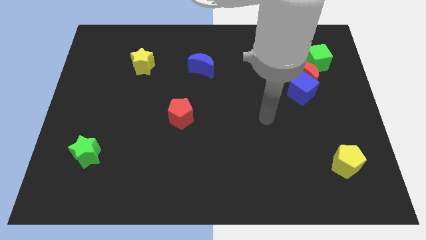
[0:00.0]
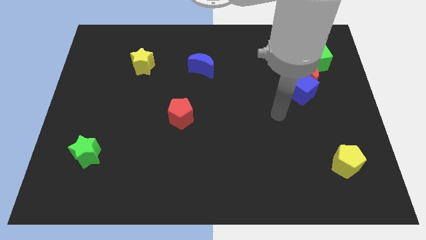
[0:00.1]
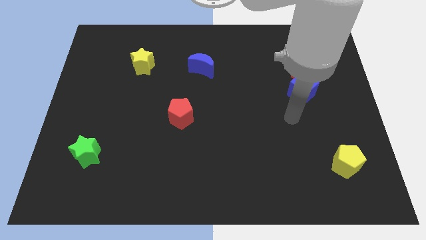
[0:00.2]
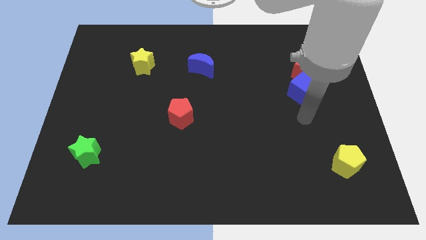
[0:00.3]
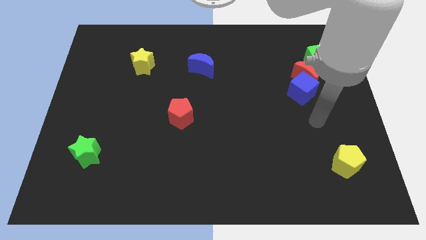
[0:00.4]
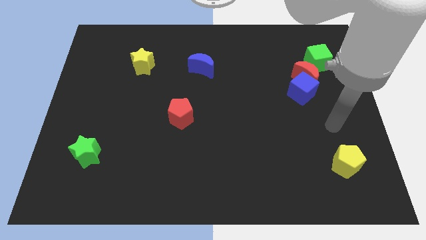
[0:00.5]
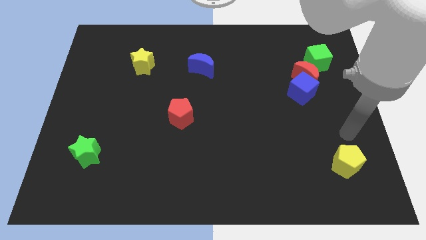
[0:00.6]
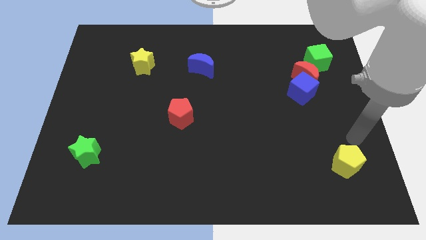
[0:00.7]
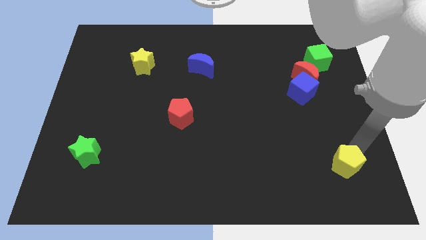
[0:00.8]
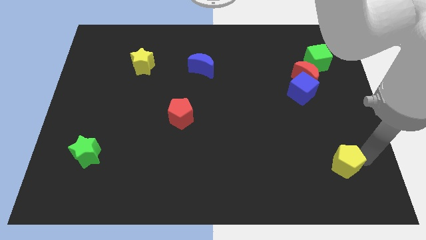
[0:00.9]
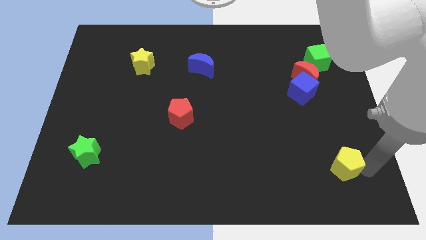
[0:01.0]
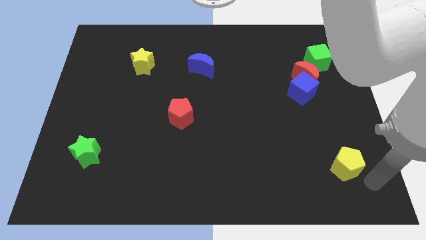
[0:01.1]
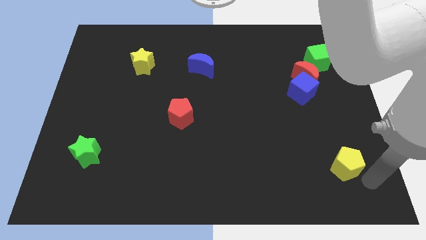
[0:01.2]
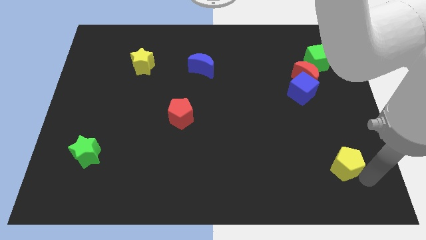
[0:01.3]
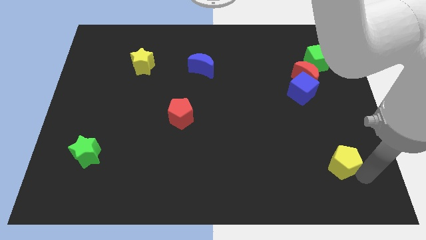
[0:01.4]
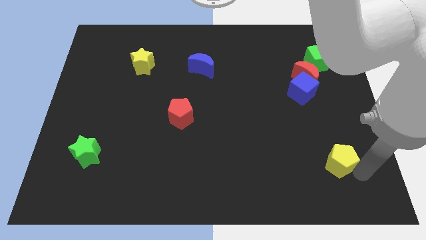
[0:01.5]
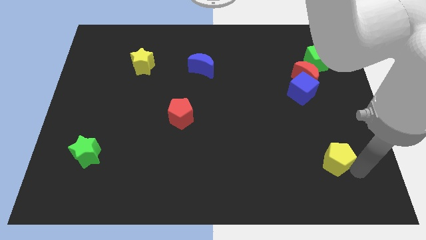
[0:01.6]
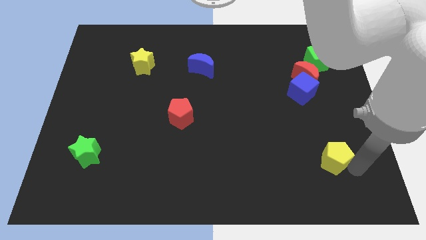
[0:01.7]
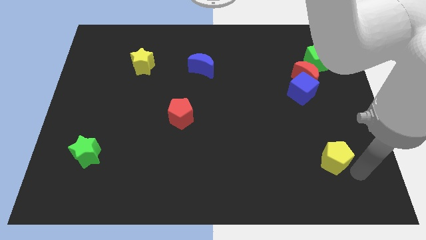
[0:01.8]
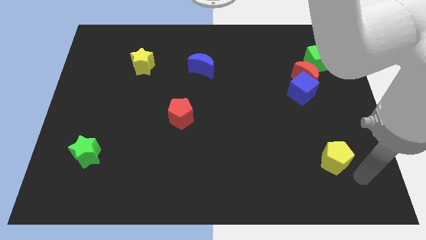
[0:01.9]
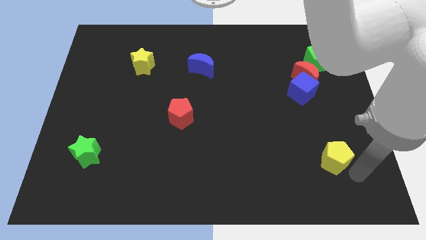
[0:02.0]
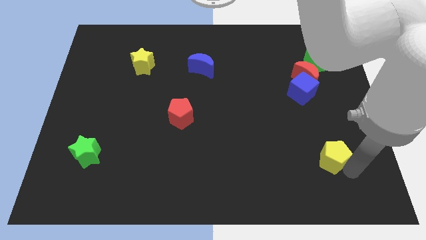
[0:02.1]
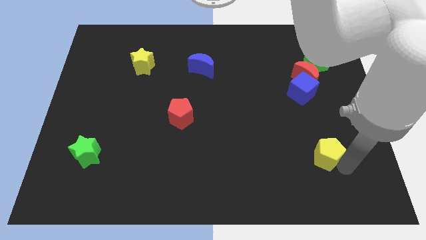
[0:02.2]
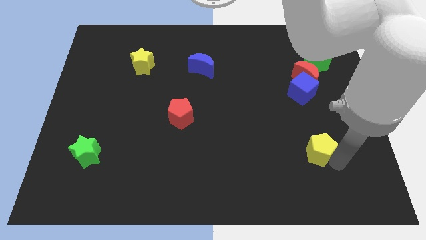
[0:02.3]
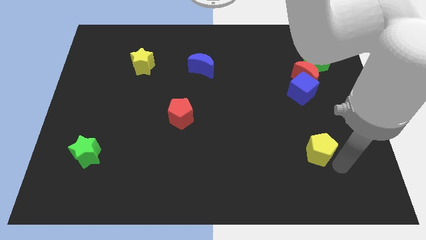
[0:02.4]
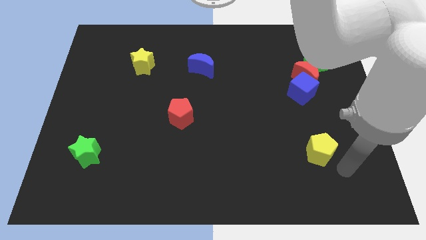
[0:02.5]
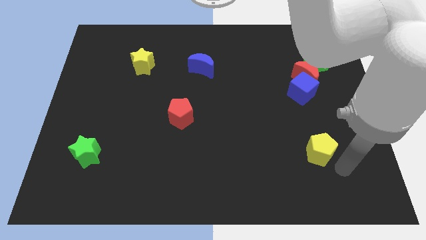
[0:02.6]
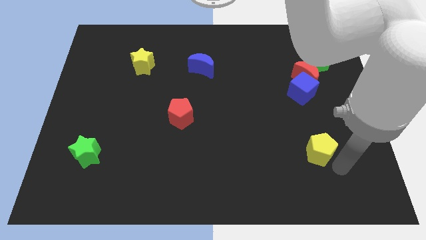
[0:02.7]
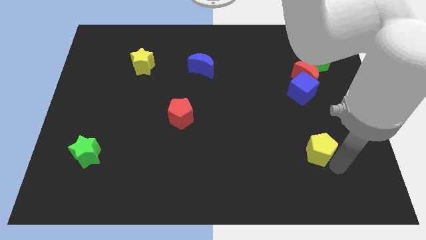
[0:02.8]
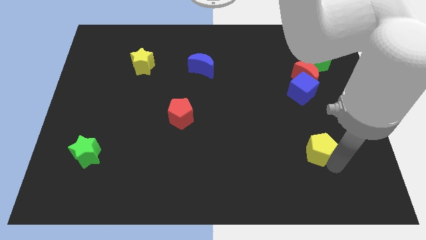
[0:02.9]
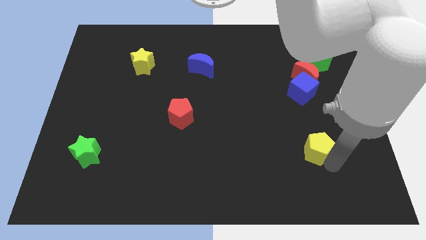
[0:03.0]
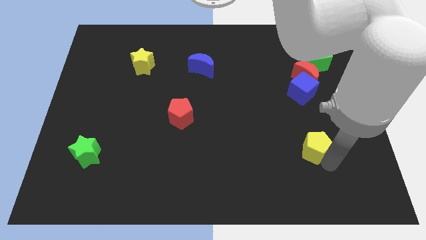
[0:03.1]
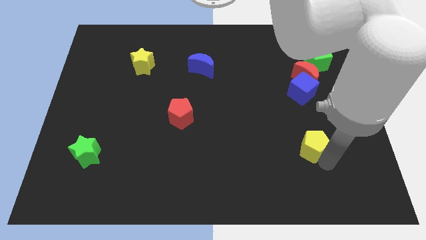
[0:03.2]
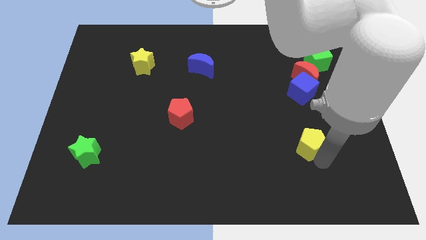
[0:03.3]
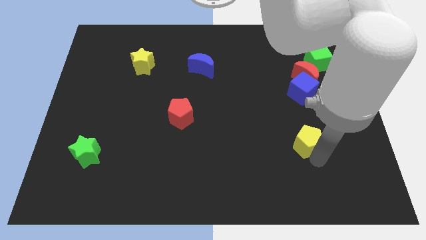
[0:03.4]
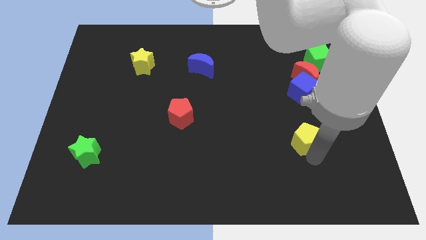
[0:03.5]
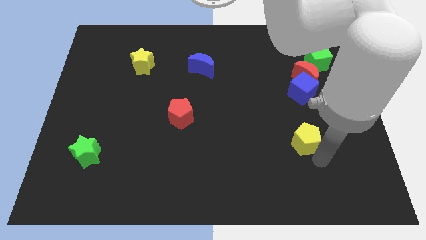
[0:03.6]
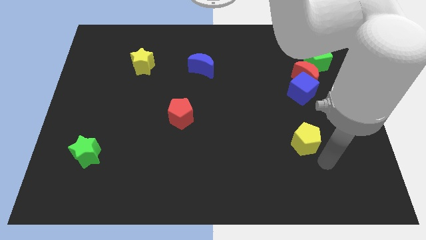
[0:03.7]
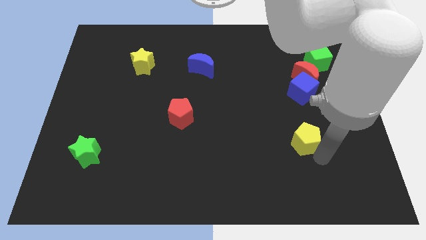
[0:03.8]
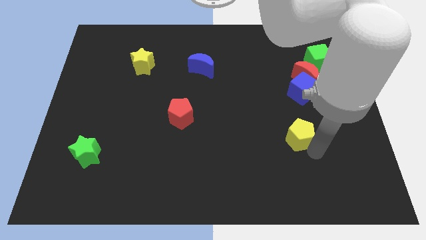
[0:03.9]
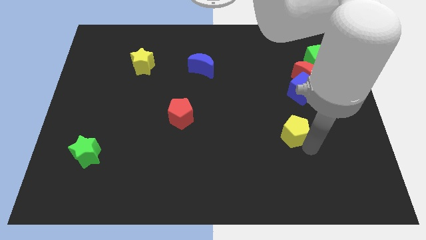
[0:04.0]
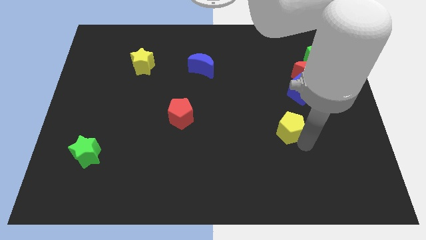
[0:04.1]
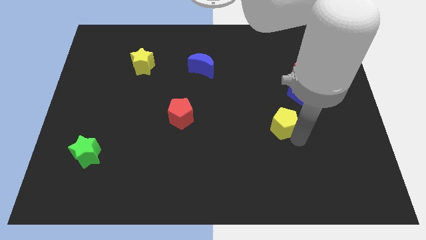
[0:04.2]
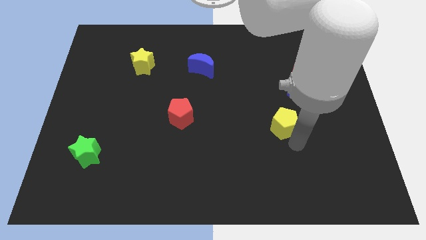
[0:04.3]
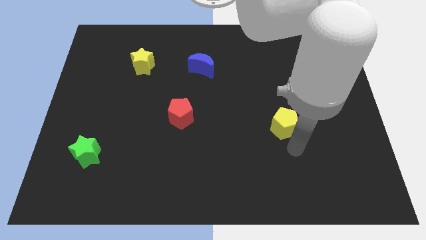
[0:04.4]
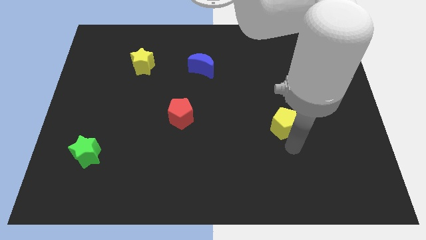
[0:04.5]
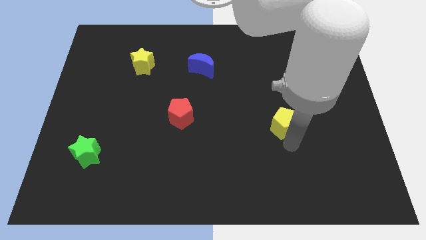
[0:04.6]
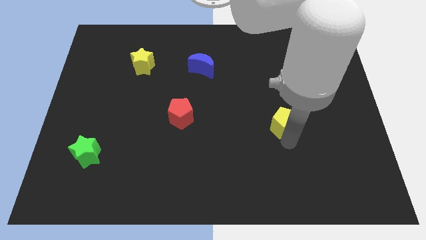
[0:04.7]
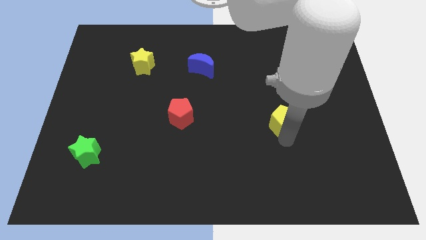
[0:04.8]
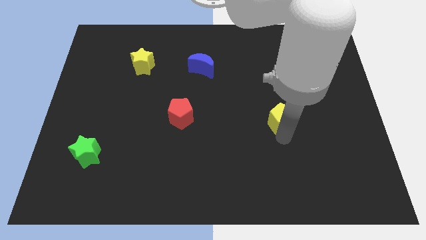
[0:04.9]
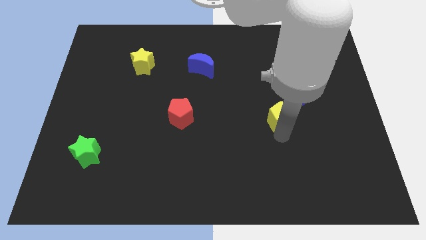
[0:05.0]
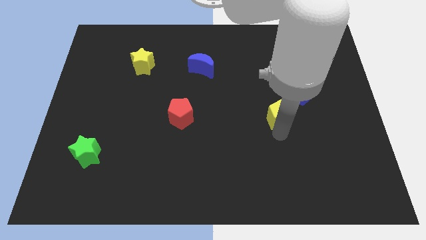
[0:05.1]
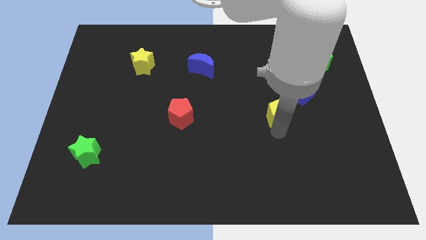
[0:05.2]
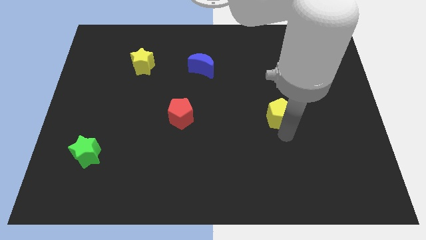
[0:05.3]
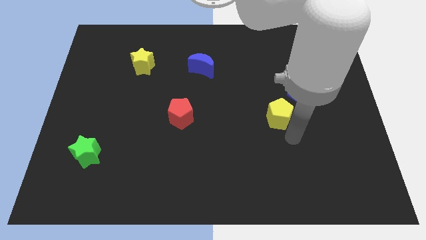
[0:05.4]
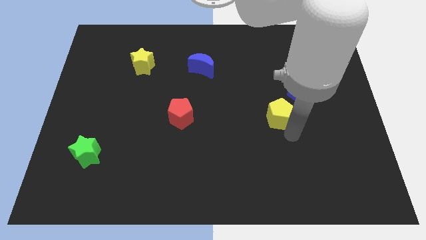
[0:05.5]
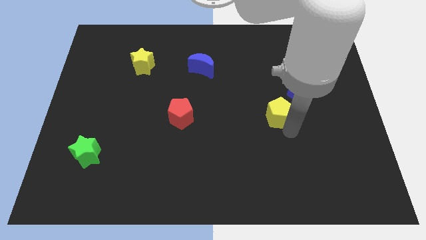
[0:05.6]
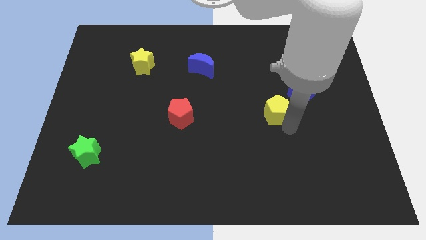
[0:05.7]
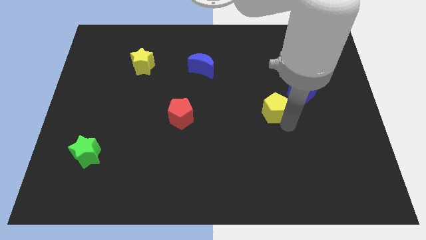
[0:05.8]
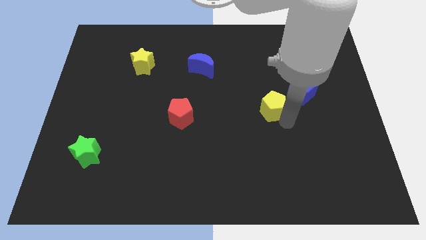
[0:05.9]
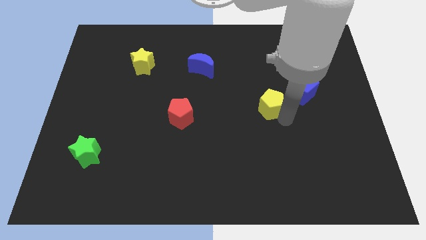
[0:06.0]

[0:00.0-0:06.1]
push the yellow pentagon just left of the blue cube

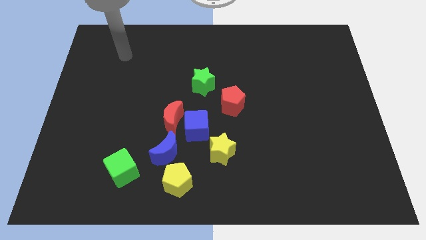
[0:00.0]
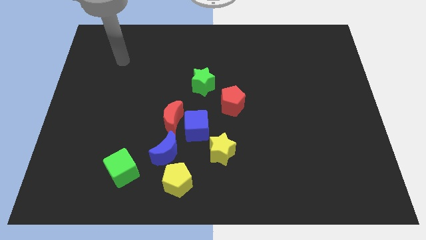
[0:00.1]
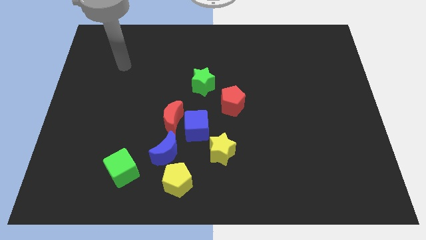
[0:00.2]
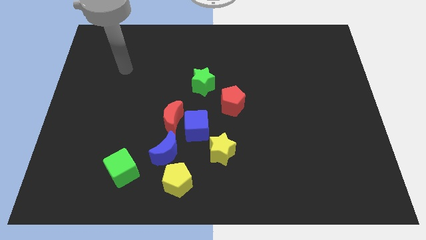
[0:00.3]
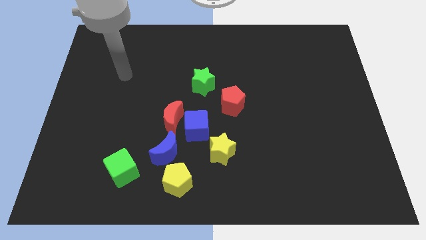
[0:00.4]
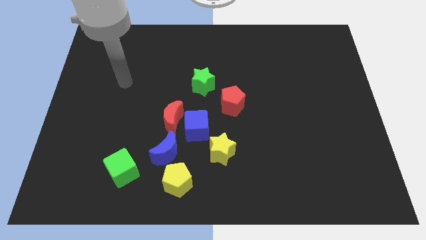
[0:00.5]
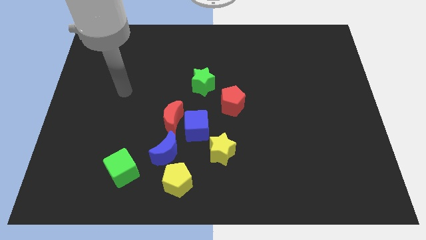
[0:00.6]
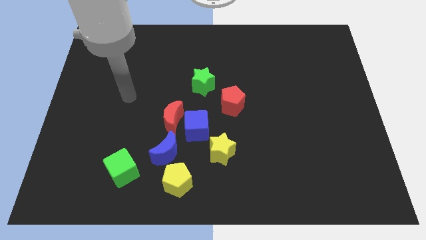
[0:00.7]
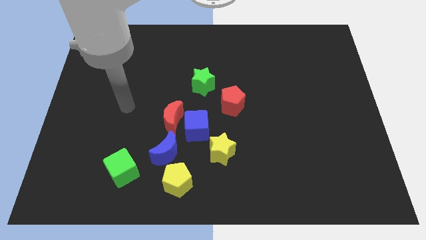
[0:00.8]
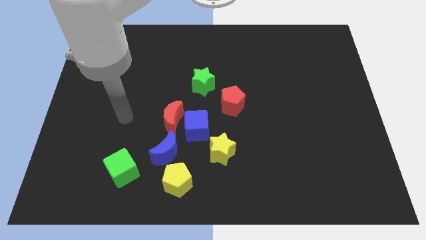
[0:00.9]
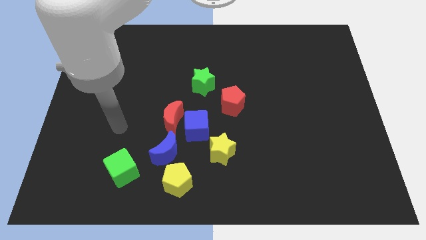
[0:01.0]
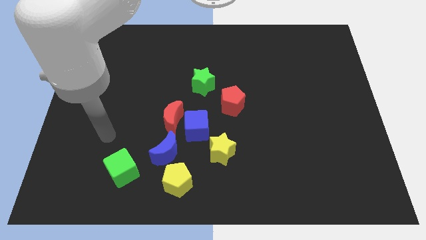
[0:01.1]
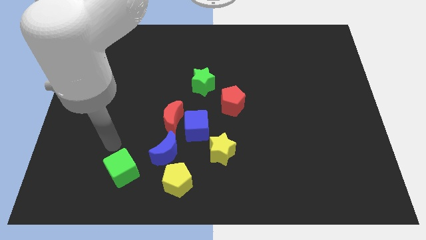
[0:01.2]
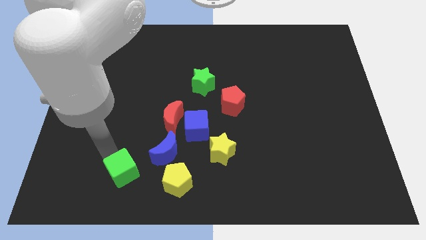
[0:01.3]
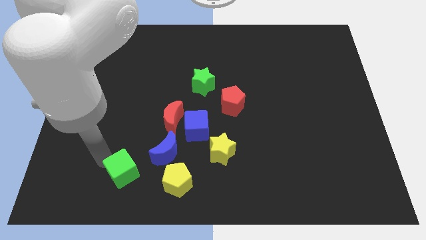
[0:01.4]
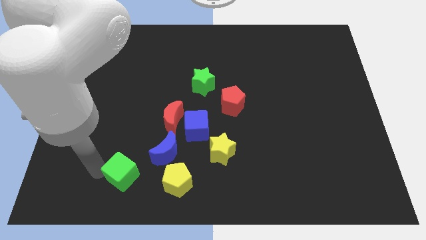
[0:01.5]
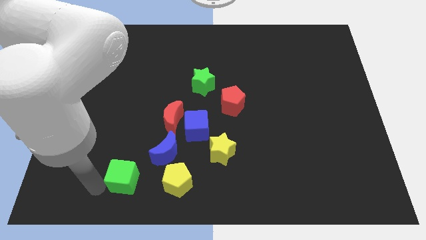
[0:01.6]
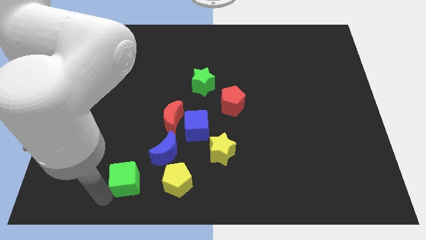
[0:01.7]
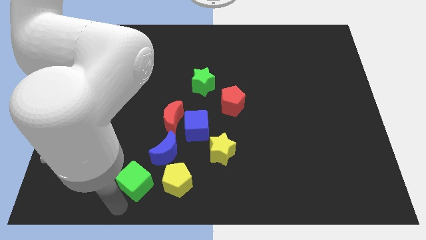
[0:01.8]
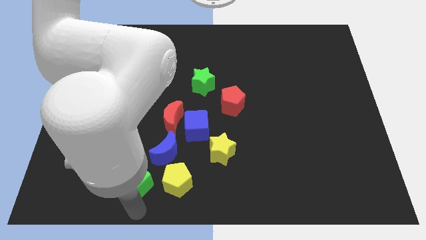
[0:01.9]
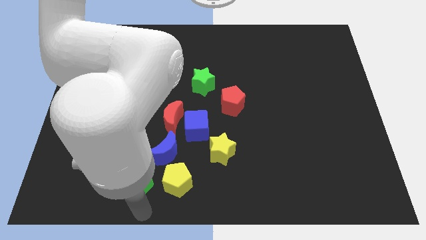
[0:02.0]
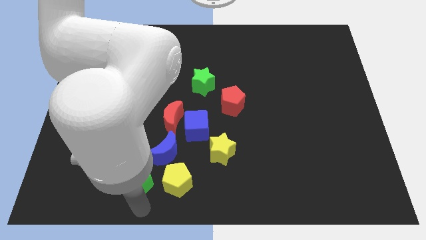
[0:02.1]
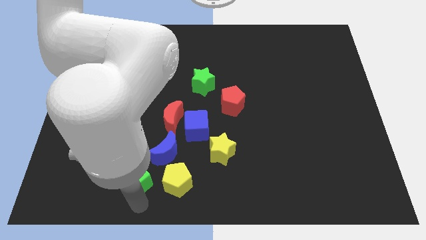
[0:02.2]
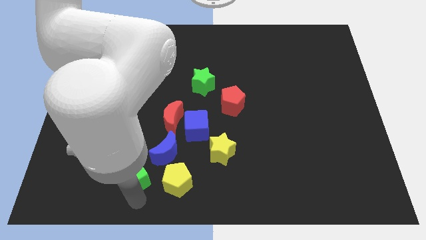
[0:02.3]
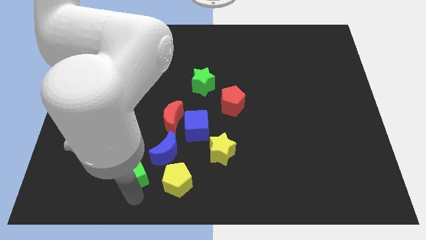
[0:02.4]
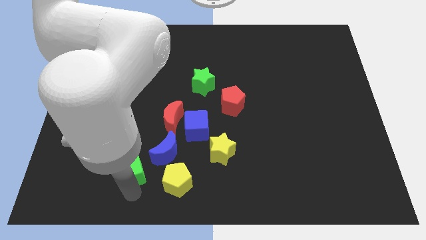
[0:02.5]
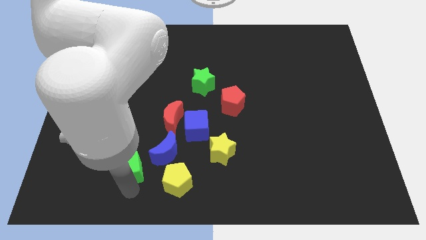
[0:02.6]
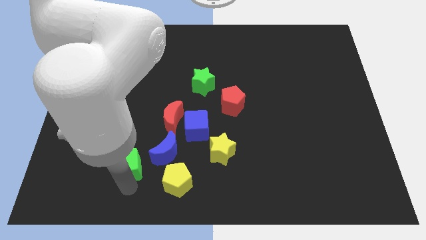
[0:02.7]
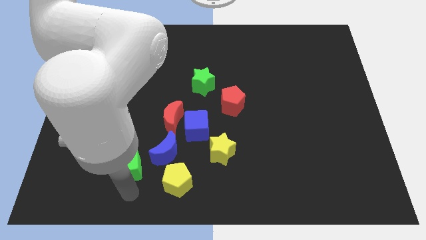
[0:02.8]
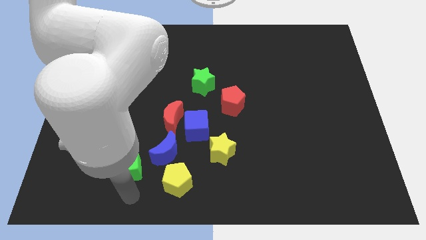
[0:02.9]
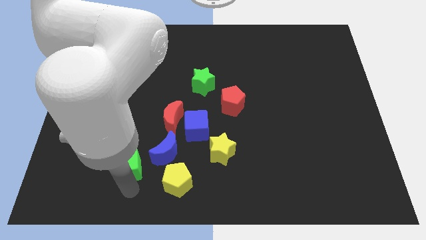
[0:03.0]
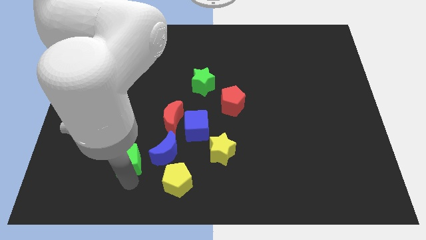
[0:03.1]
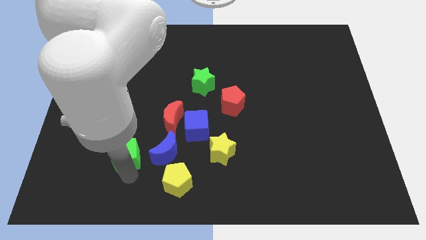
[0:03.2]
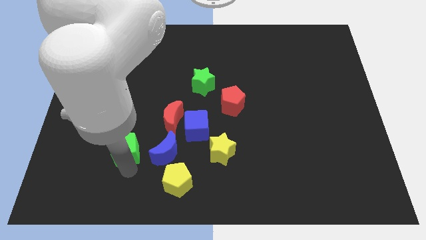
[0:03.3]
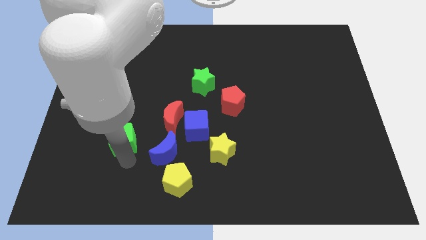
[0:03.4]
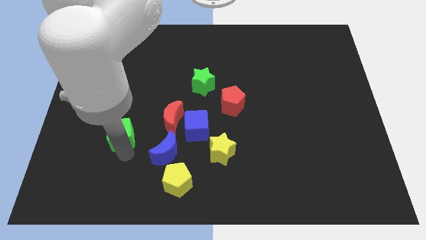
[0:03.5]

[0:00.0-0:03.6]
slide the green cube to the left of the red moon
